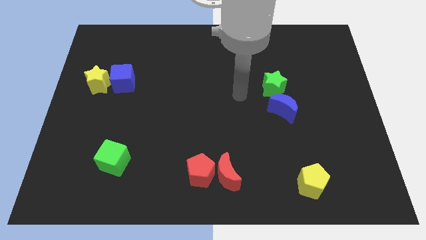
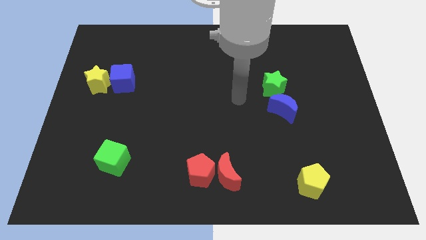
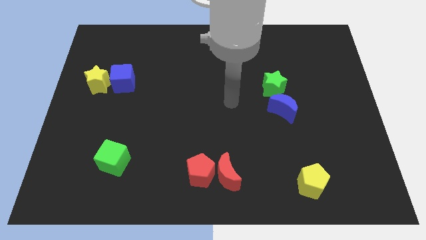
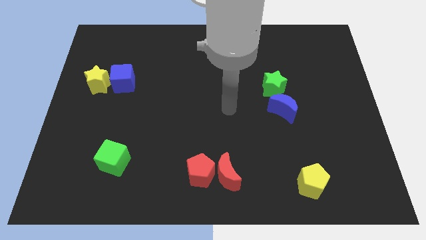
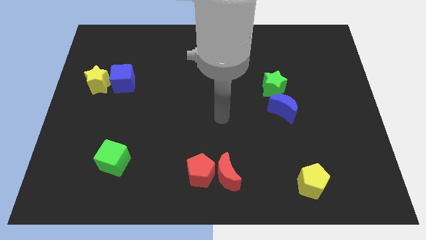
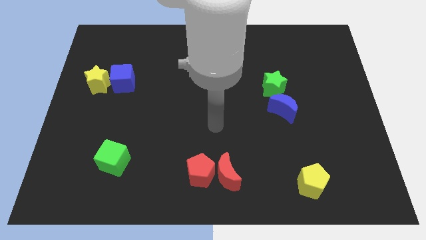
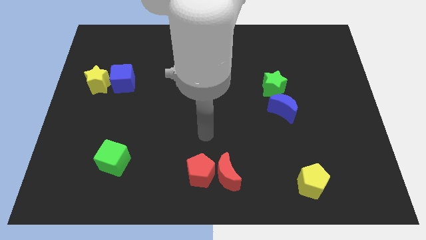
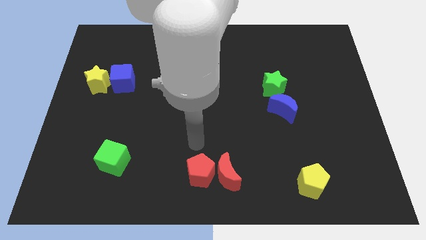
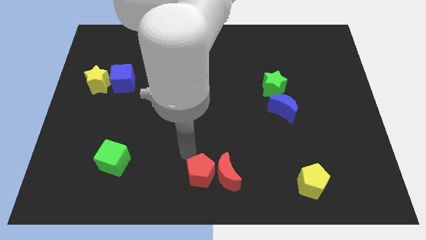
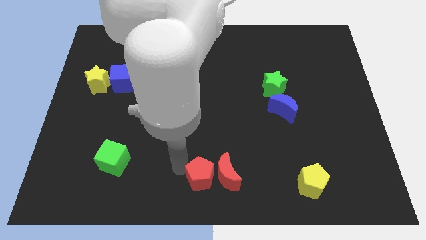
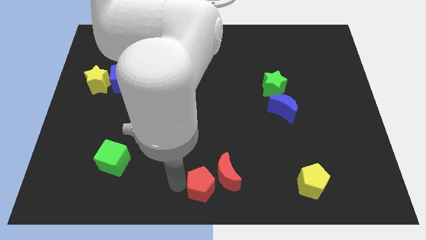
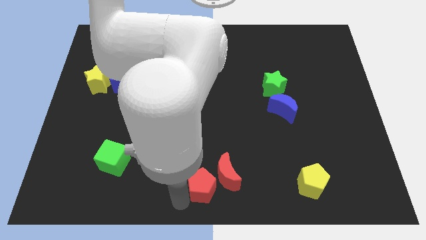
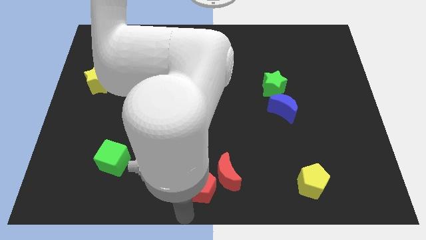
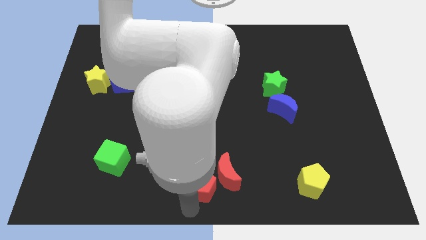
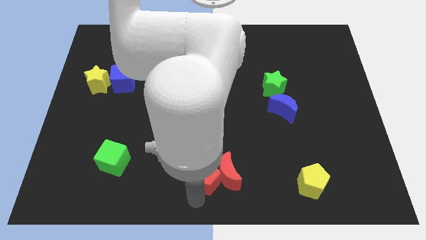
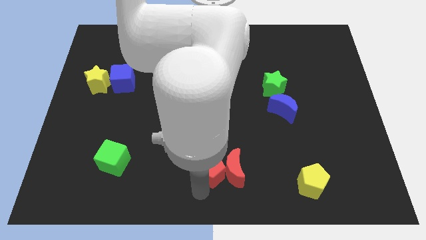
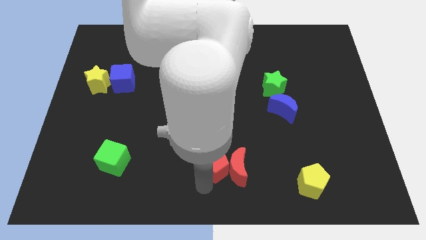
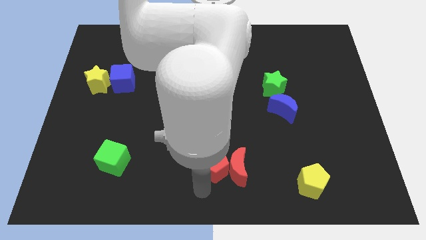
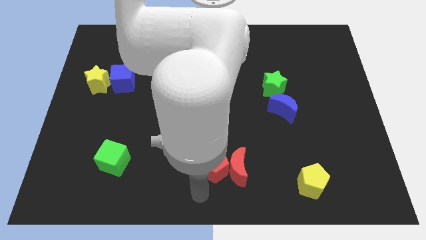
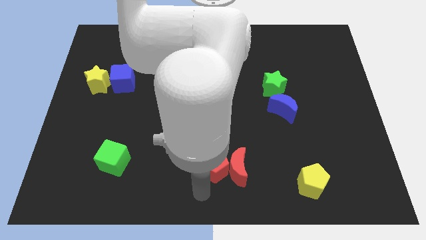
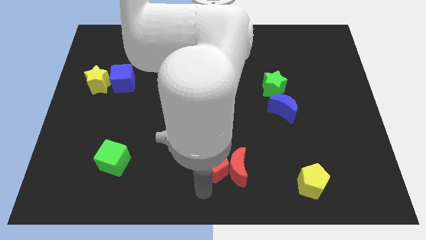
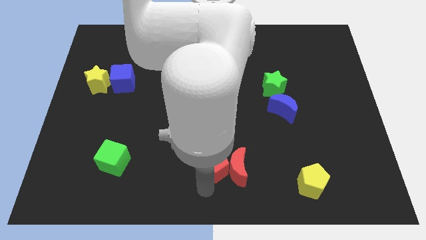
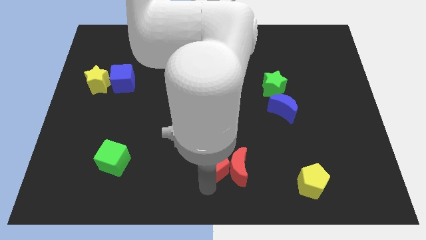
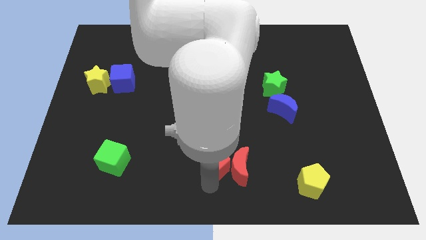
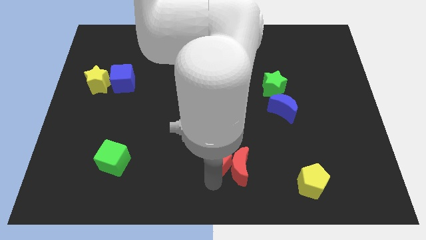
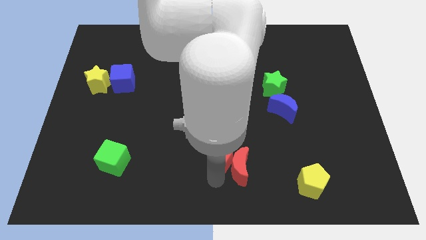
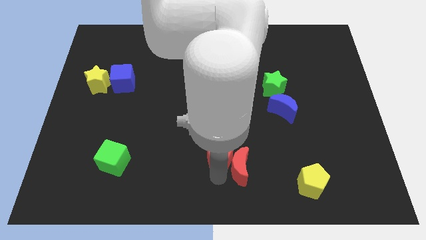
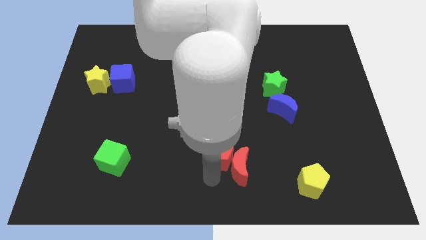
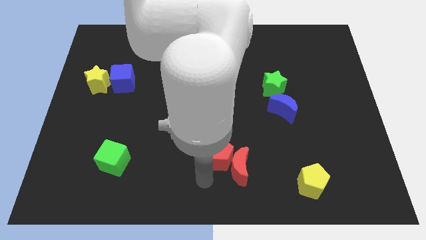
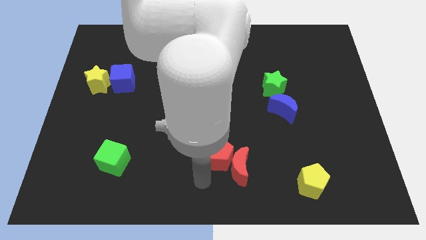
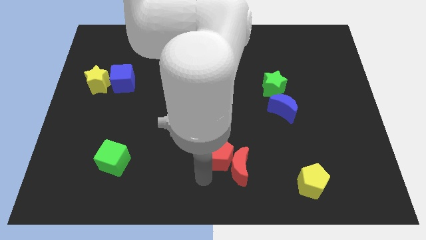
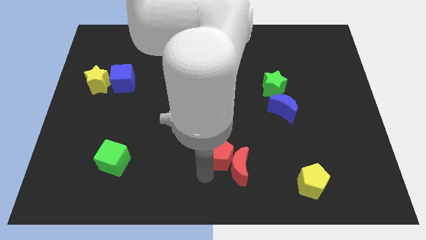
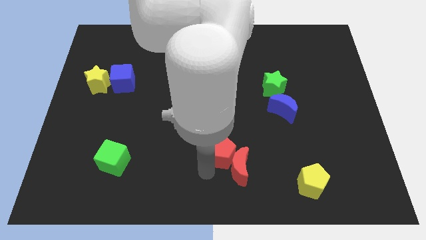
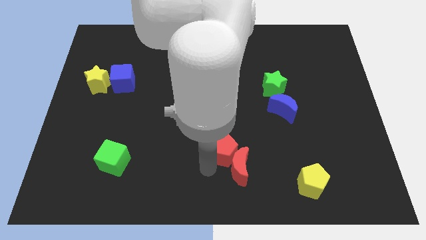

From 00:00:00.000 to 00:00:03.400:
push the red pentagon upwards and to the right diagonally a bit

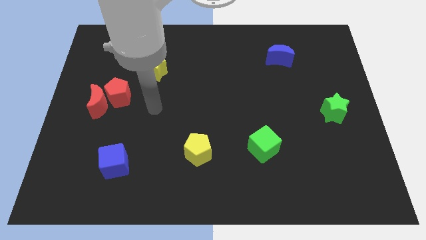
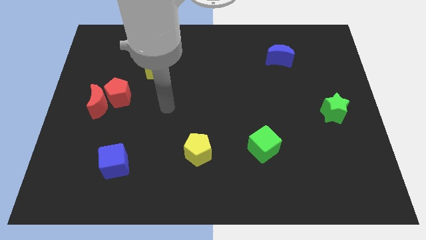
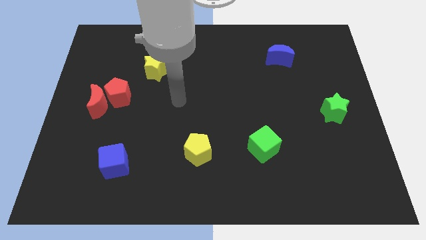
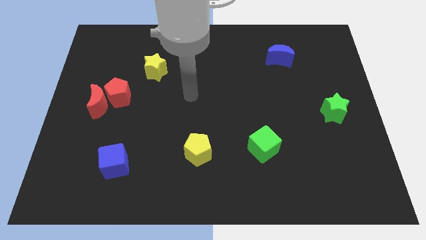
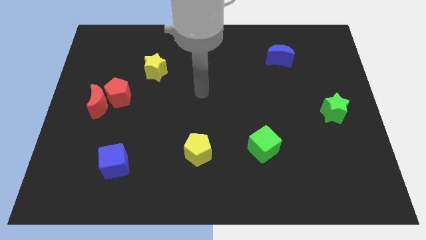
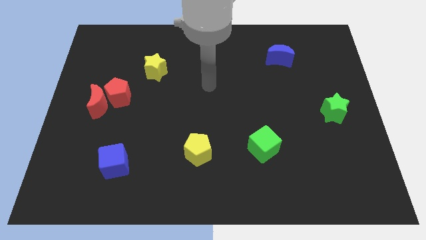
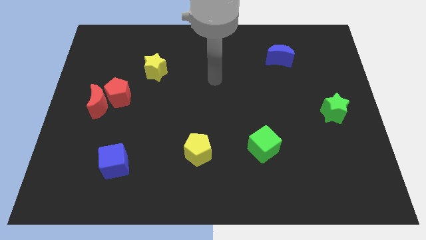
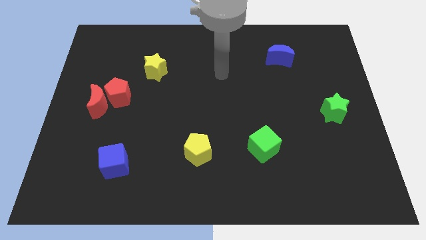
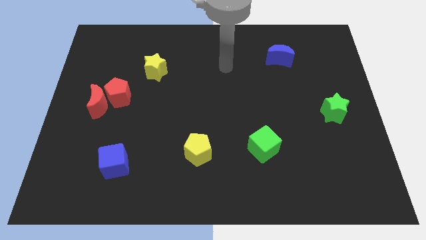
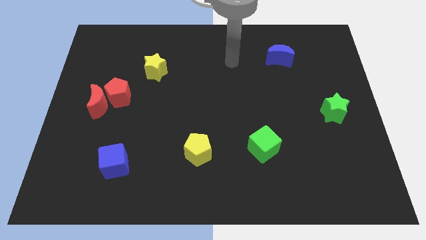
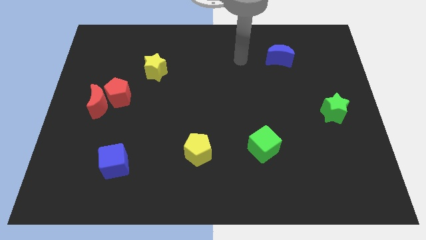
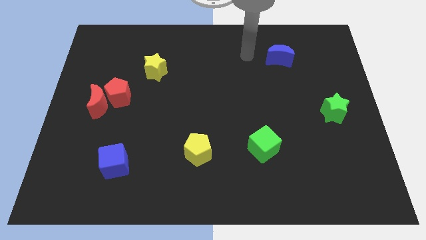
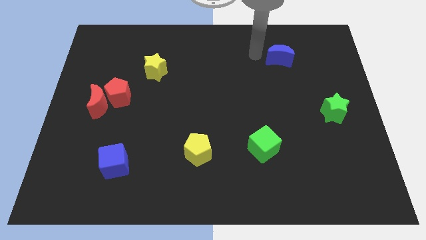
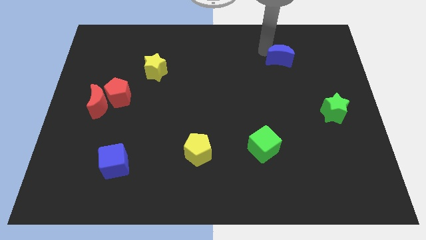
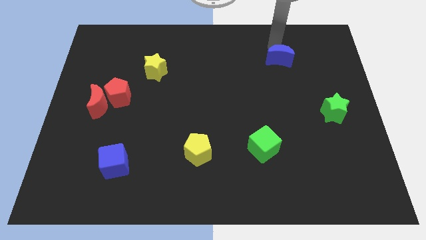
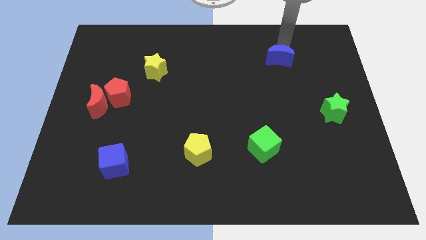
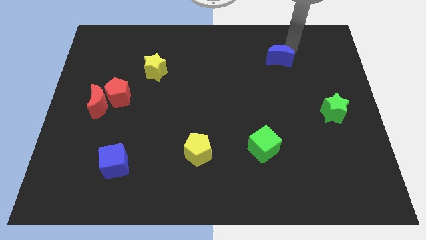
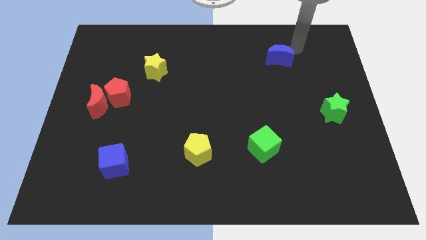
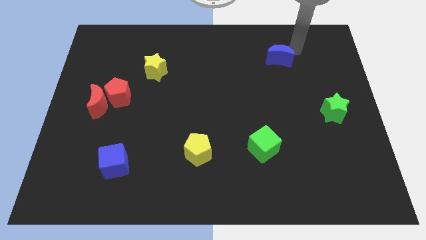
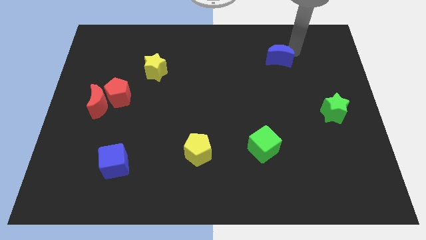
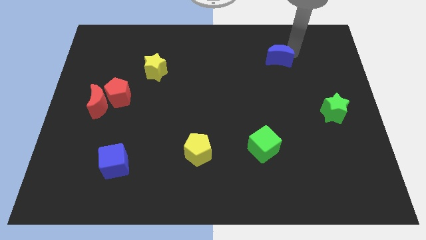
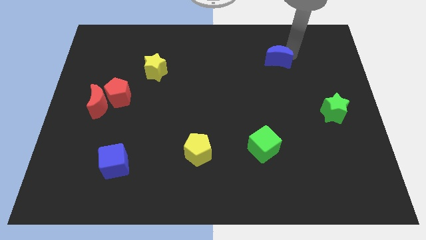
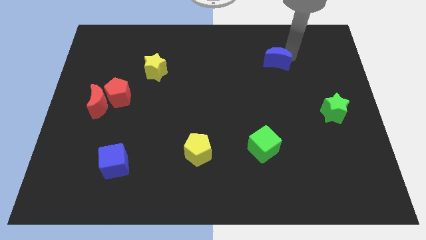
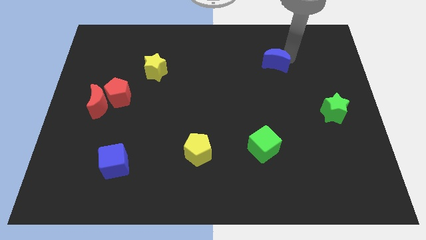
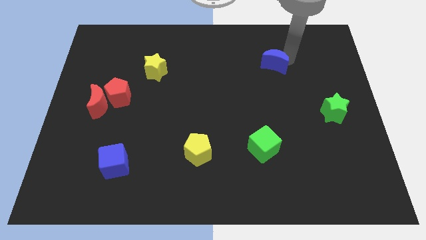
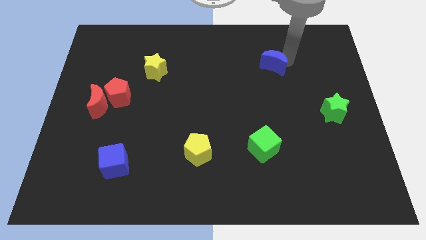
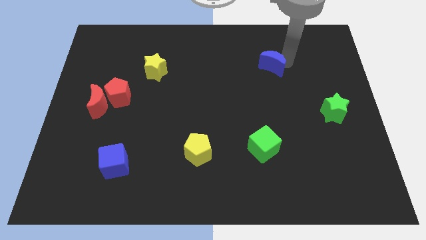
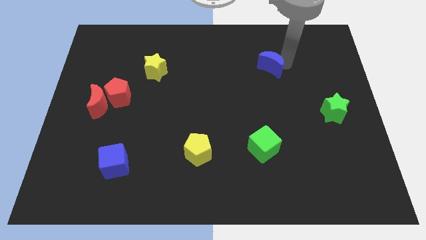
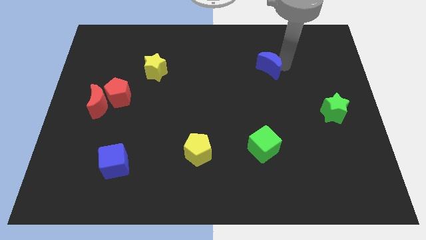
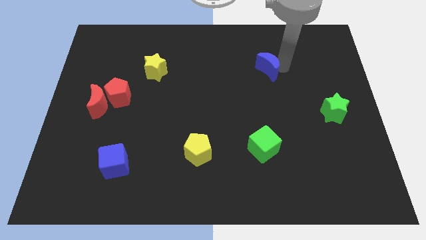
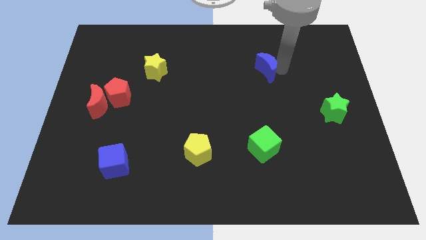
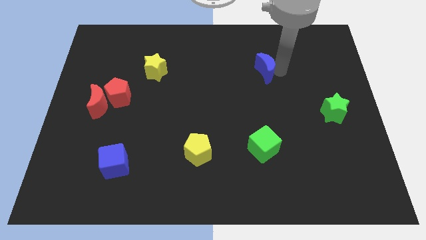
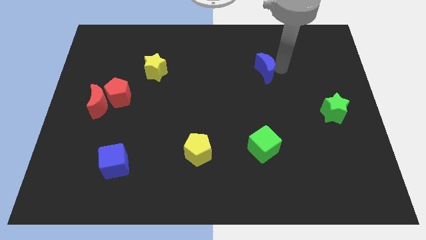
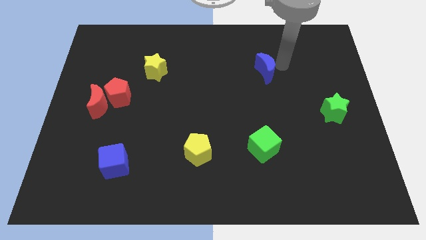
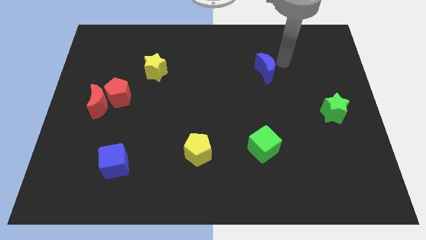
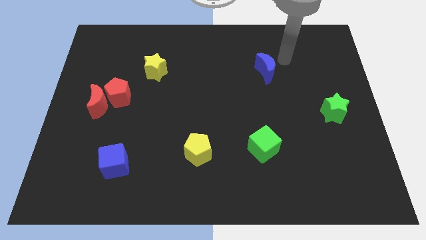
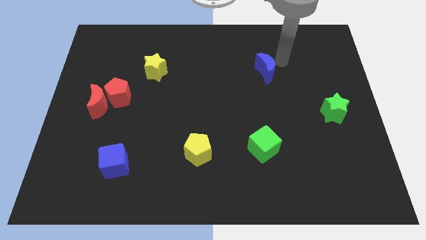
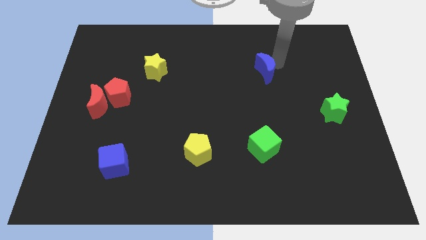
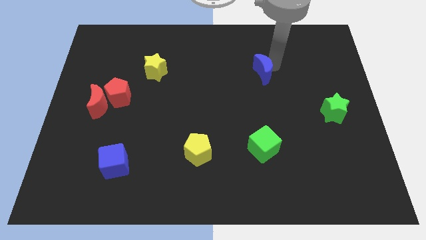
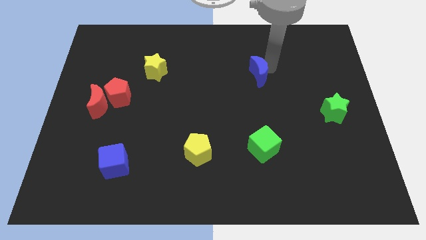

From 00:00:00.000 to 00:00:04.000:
slightly slide the blue moon down and to the left diagonally

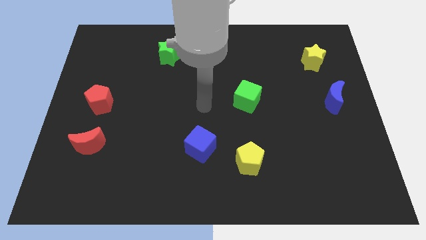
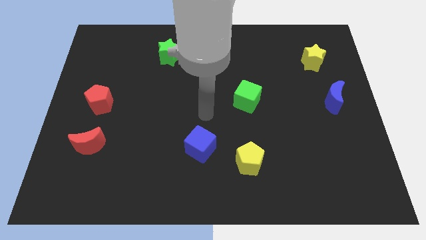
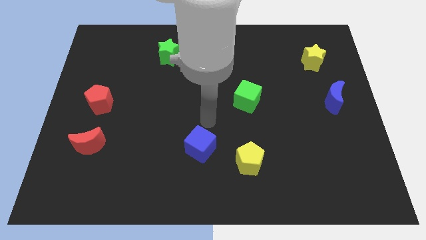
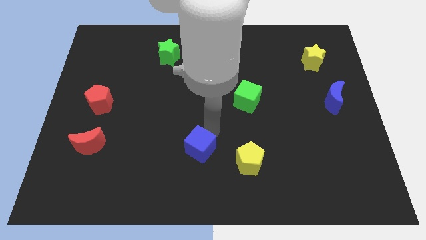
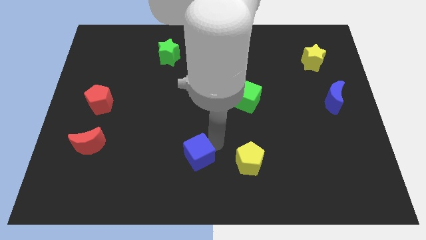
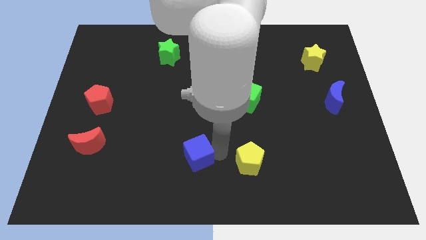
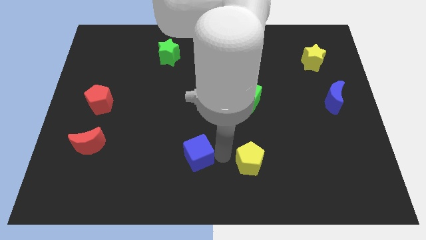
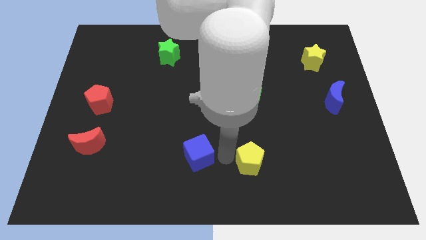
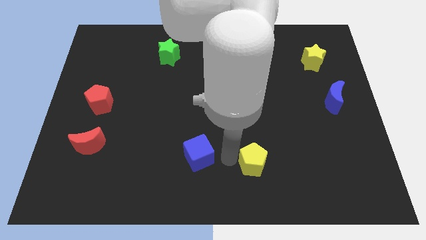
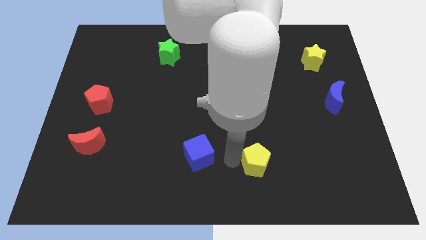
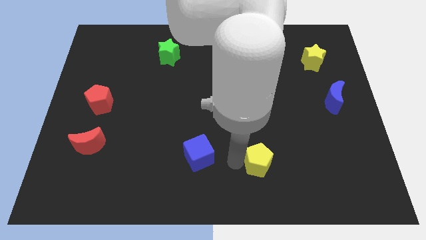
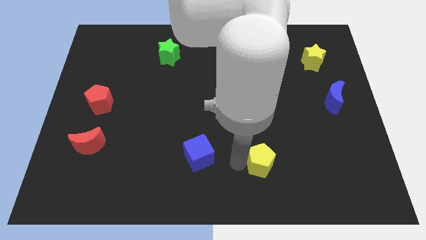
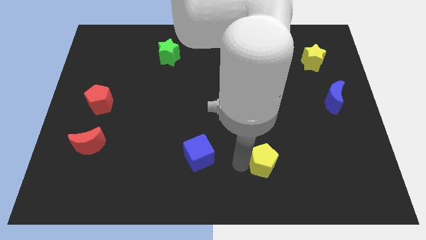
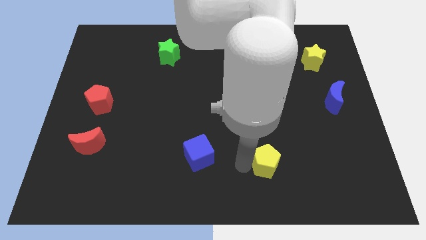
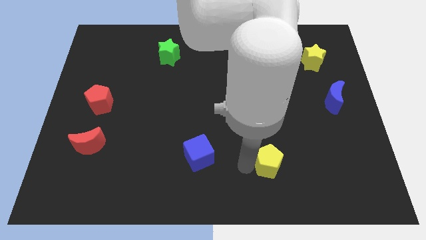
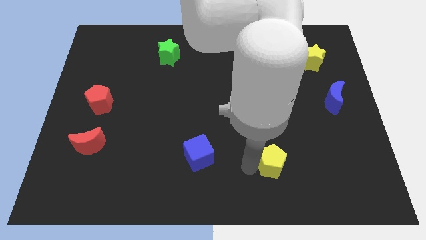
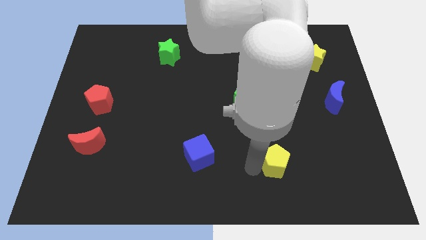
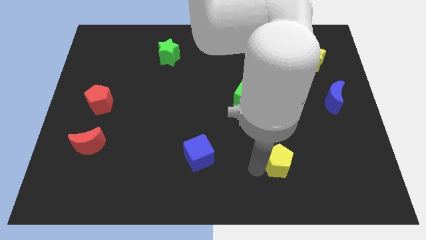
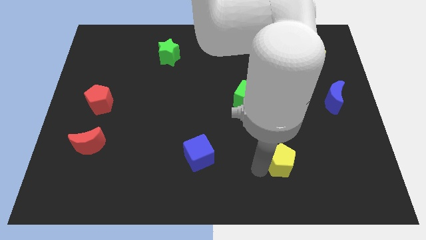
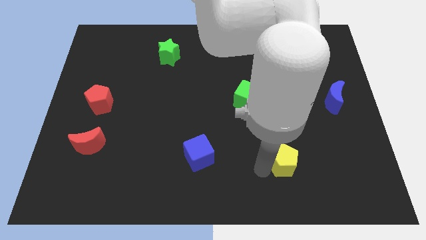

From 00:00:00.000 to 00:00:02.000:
slightly push the yellow pentagon right
